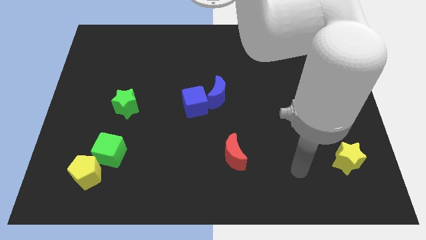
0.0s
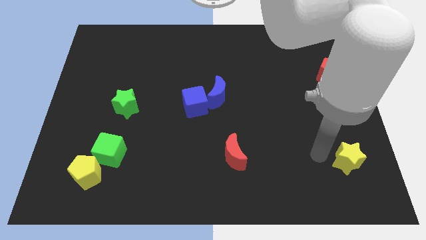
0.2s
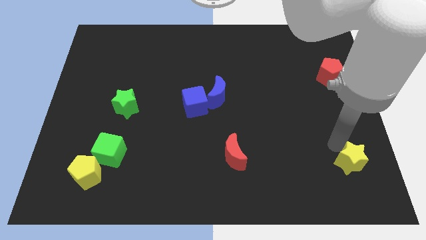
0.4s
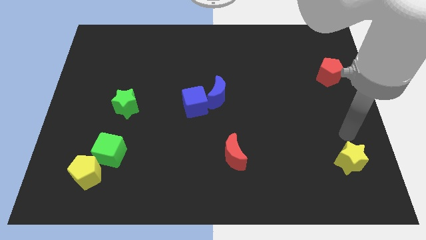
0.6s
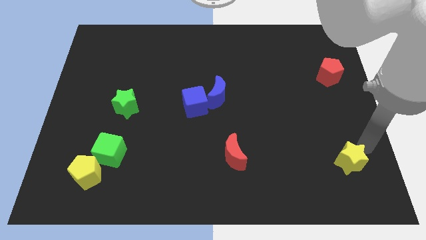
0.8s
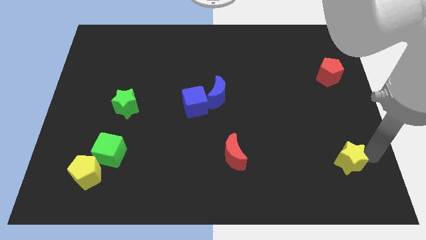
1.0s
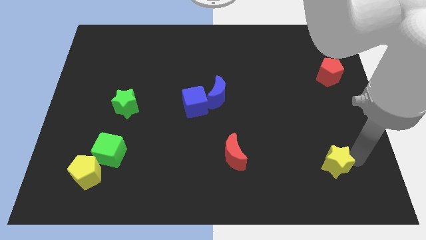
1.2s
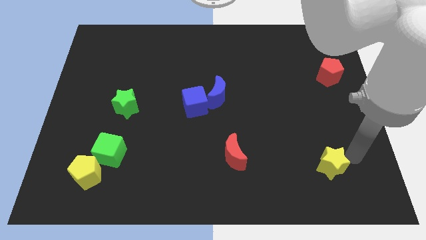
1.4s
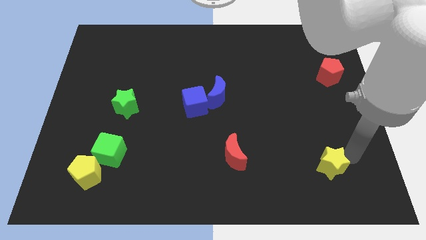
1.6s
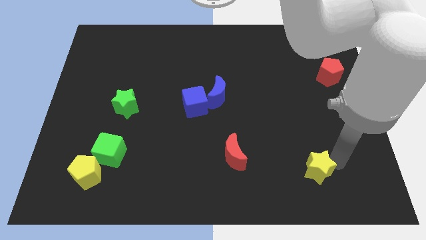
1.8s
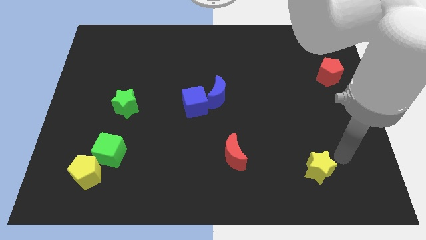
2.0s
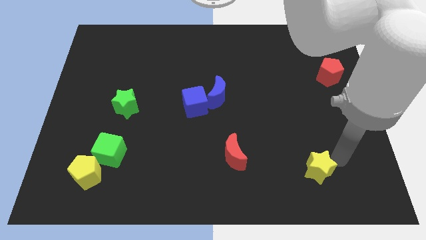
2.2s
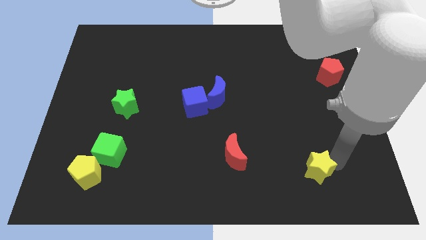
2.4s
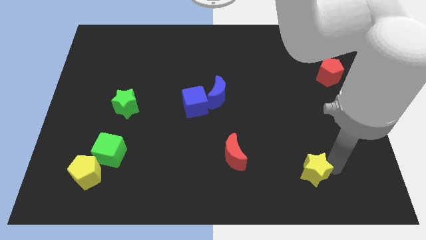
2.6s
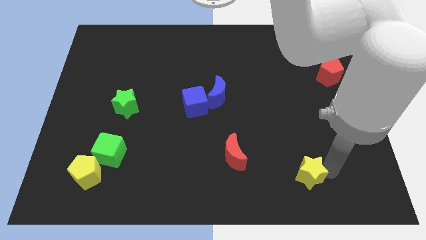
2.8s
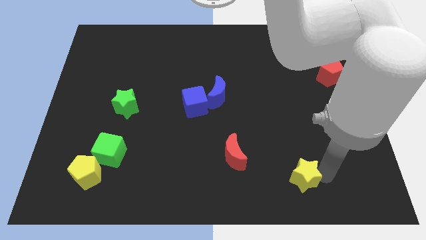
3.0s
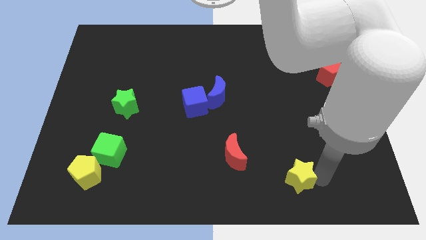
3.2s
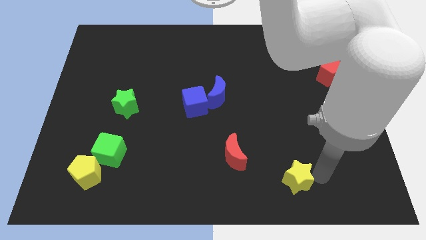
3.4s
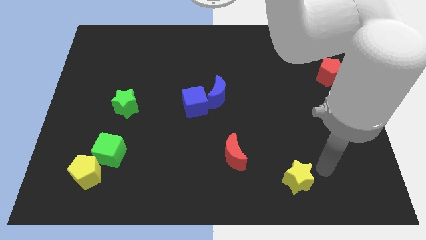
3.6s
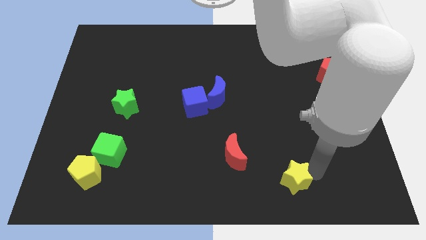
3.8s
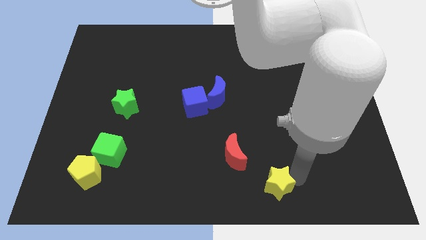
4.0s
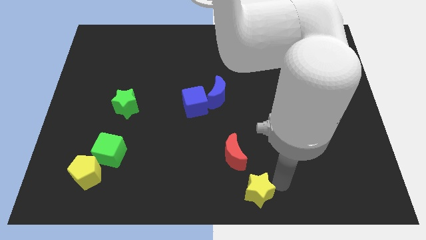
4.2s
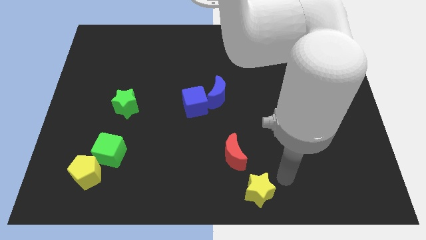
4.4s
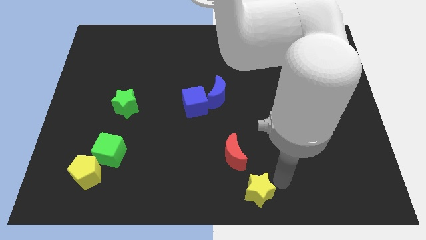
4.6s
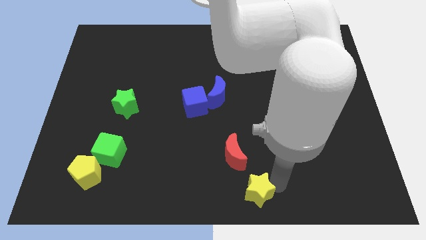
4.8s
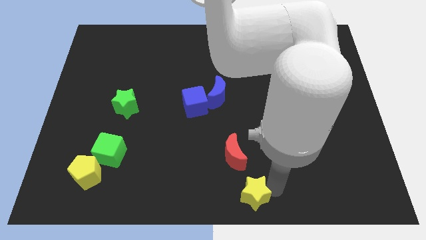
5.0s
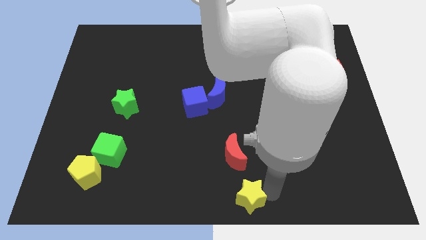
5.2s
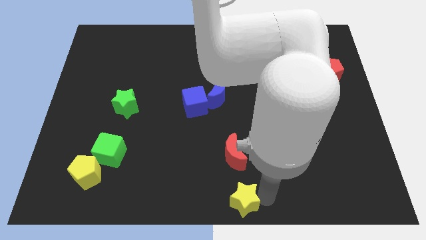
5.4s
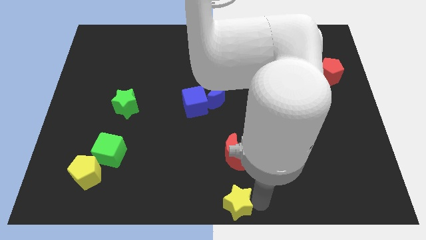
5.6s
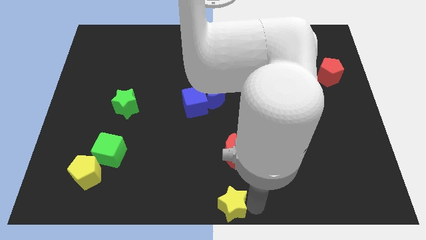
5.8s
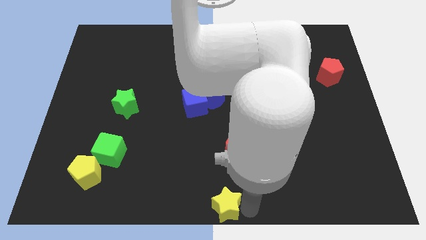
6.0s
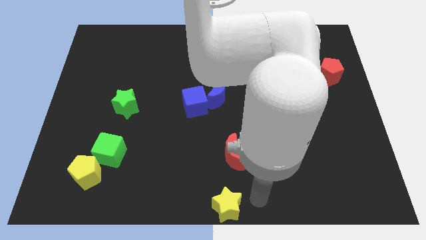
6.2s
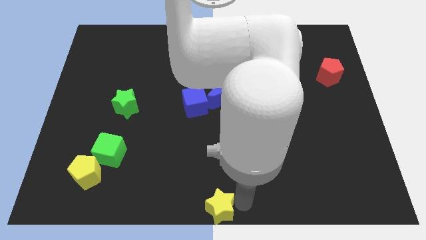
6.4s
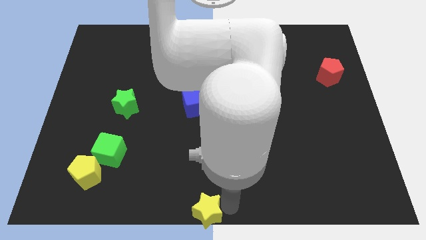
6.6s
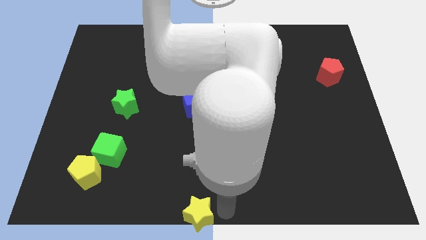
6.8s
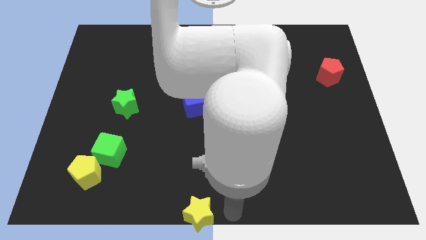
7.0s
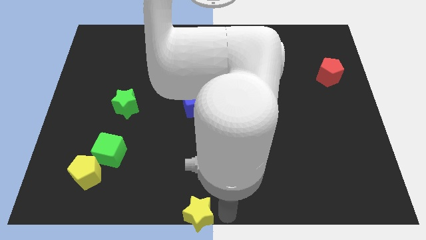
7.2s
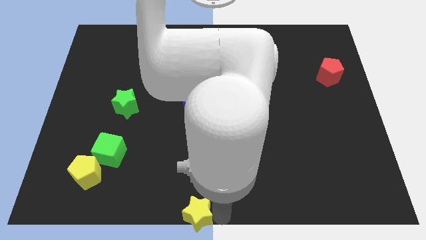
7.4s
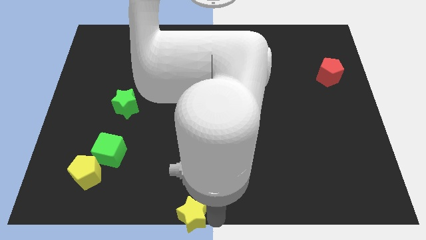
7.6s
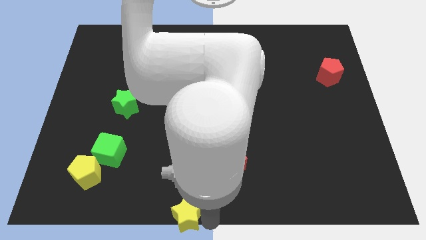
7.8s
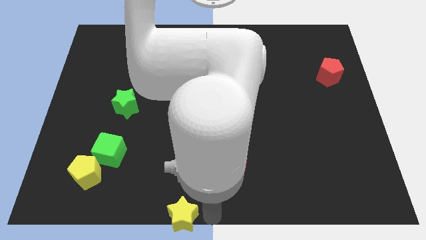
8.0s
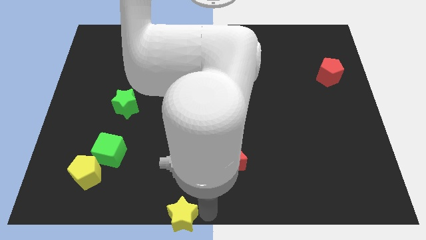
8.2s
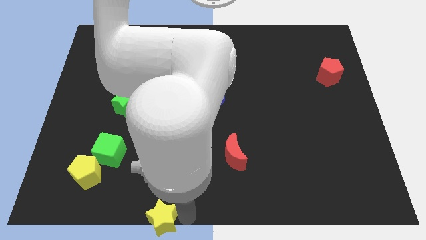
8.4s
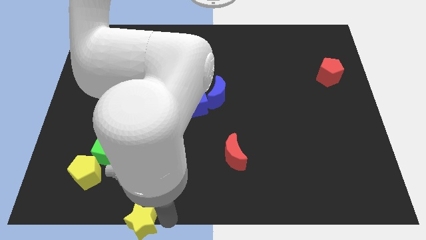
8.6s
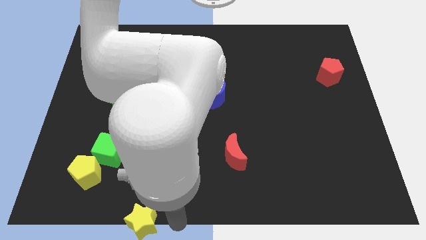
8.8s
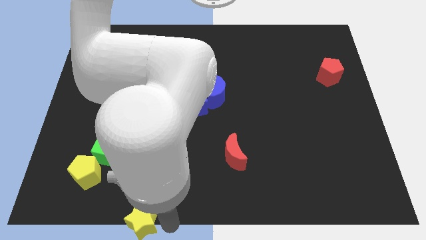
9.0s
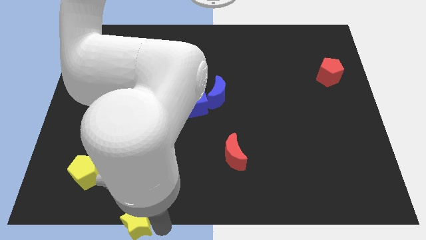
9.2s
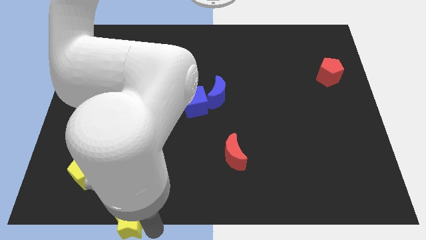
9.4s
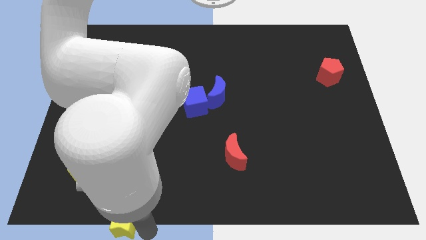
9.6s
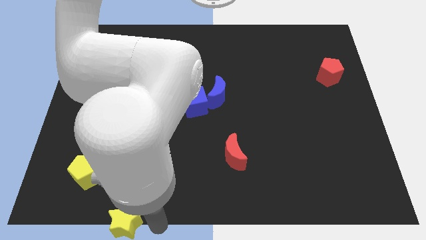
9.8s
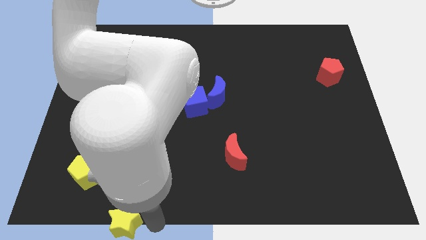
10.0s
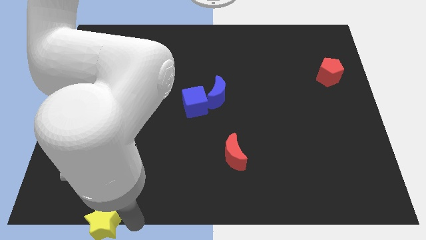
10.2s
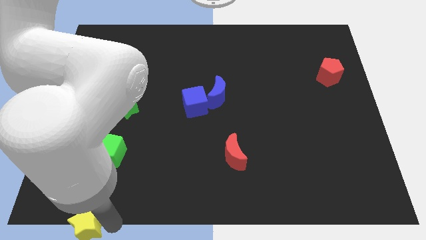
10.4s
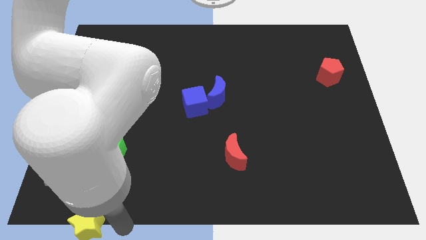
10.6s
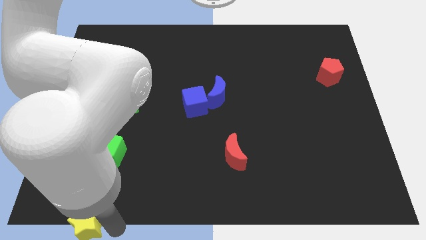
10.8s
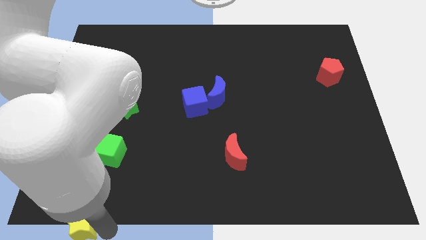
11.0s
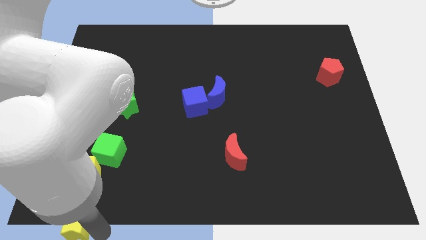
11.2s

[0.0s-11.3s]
move the yellow star to the bottom left of the board

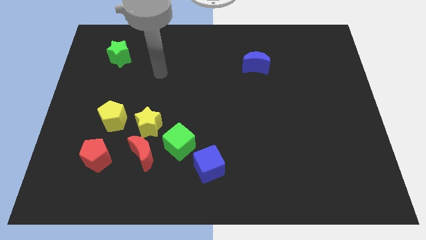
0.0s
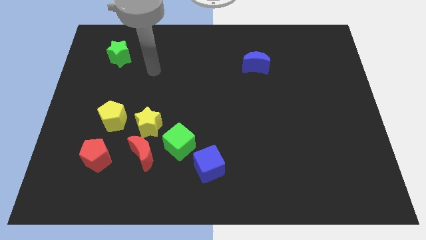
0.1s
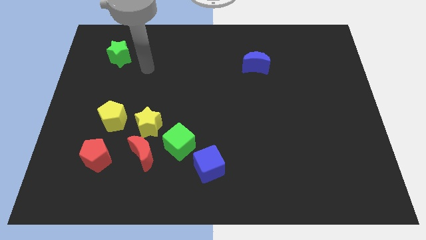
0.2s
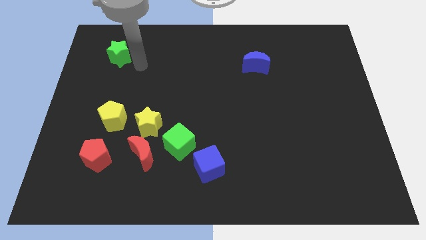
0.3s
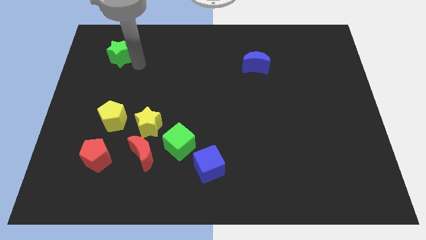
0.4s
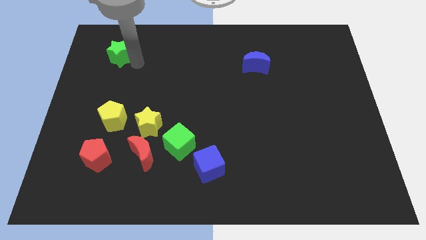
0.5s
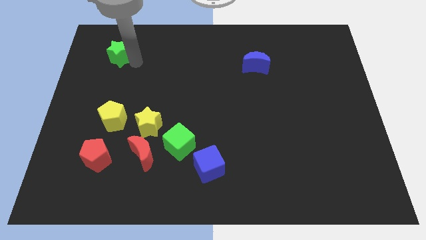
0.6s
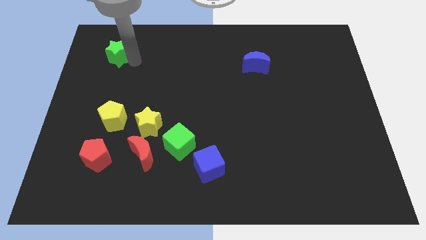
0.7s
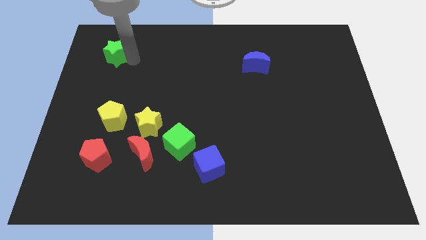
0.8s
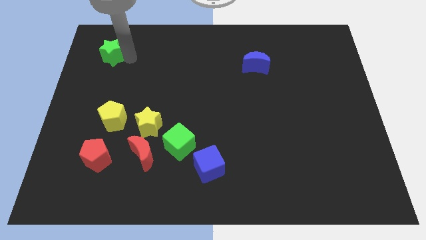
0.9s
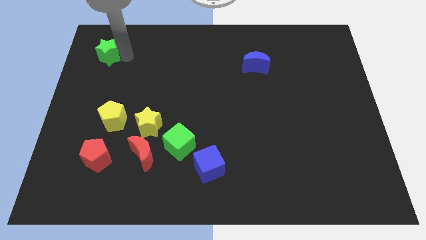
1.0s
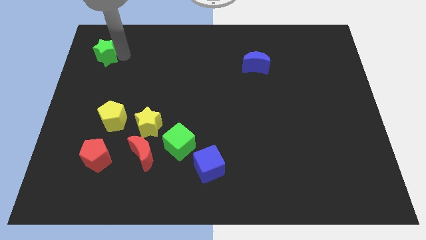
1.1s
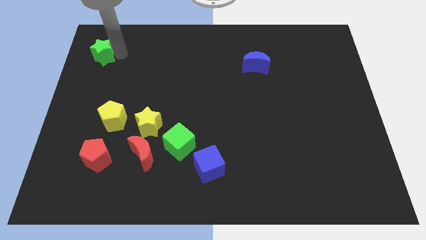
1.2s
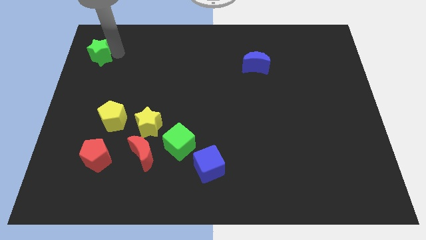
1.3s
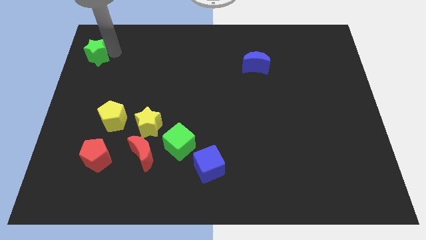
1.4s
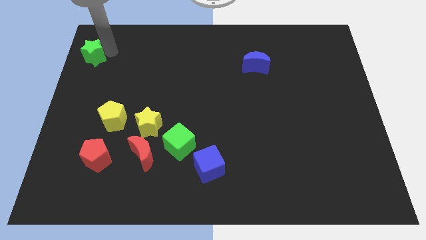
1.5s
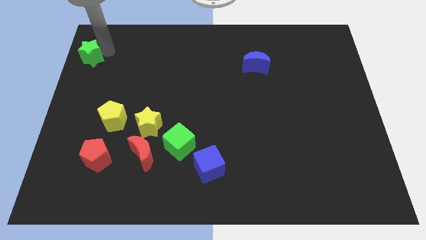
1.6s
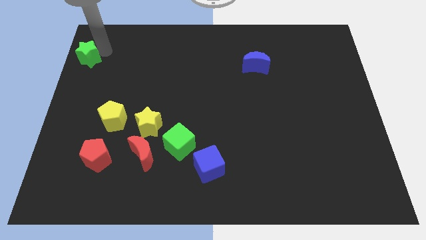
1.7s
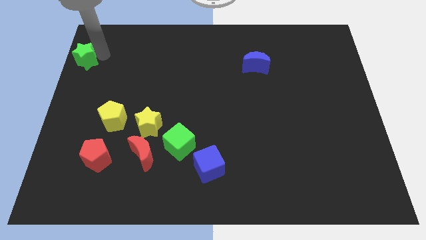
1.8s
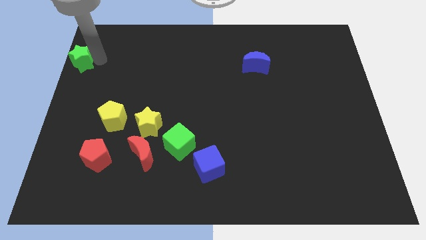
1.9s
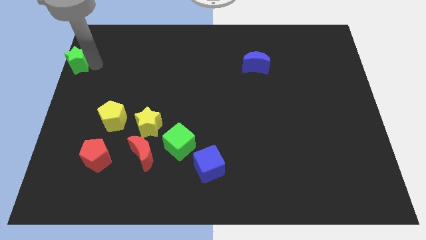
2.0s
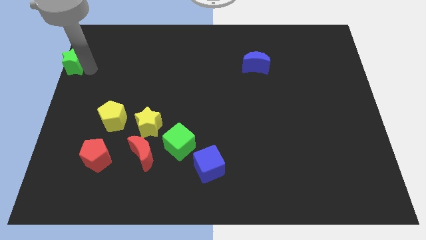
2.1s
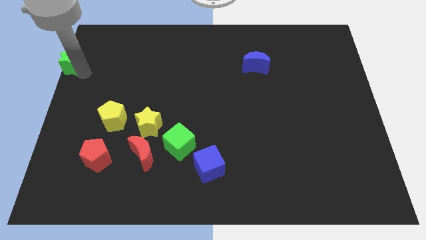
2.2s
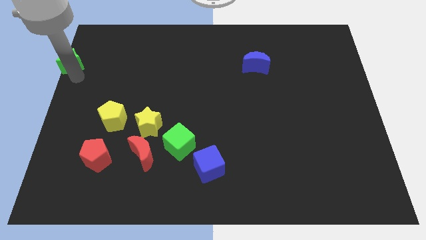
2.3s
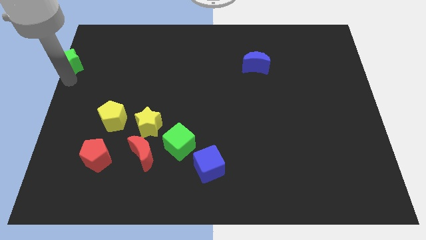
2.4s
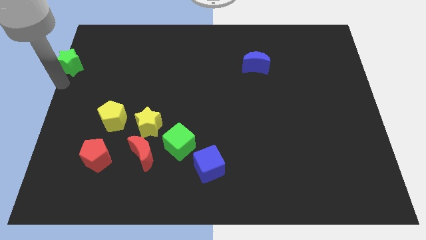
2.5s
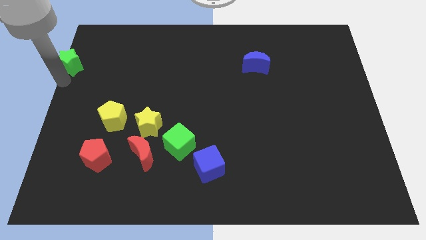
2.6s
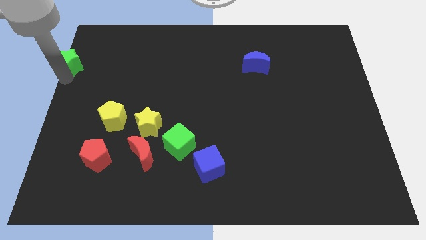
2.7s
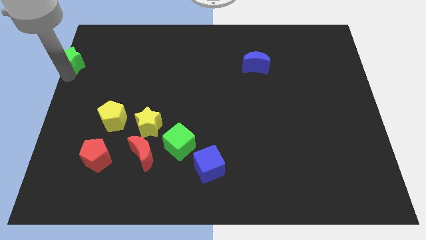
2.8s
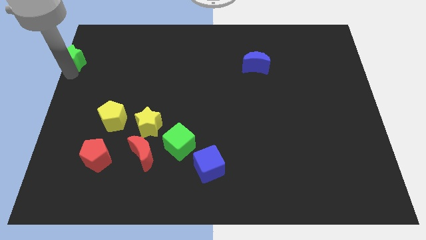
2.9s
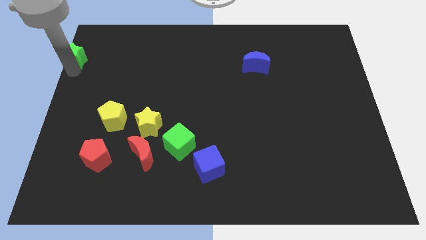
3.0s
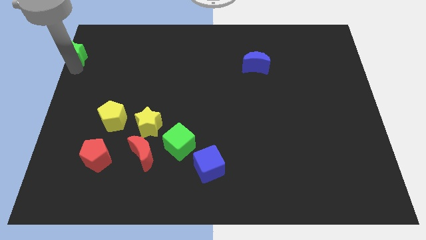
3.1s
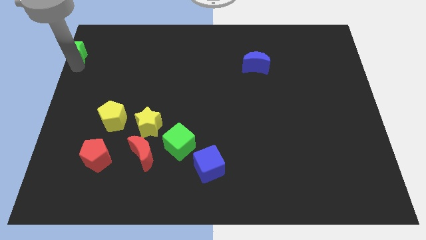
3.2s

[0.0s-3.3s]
move the green star to the upper left corner
